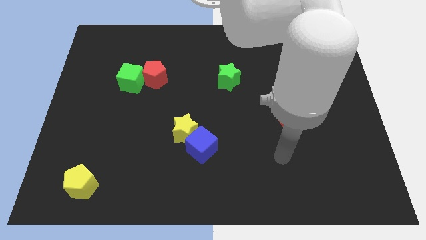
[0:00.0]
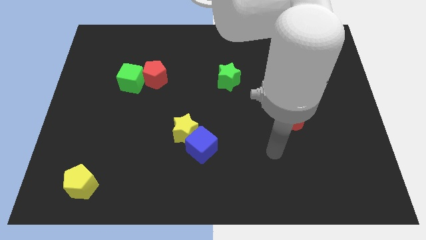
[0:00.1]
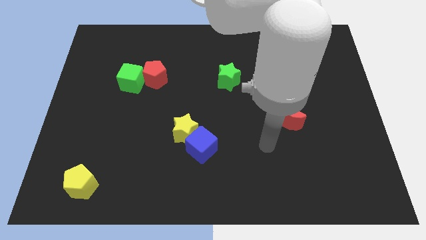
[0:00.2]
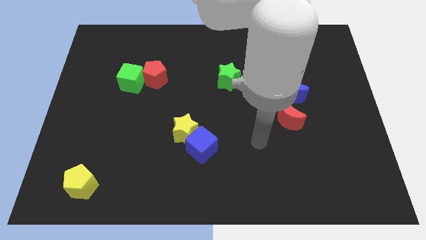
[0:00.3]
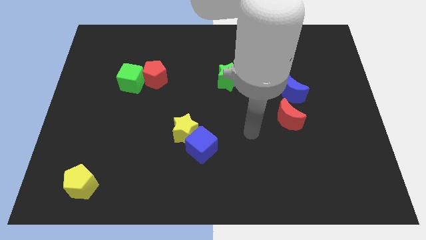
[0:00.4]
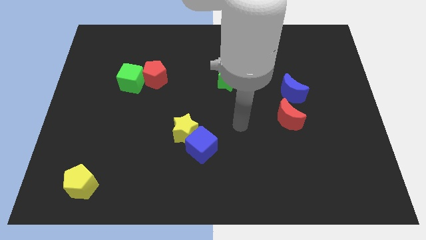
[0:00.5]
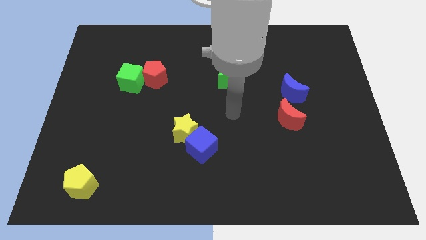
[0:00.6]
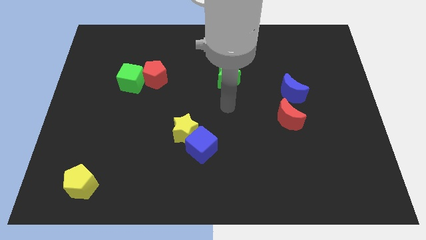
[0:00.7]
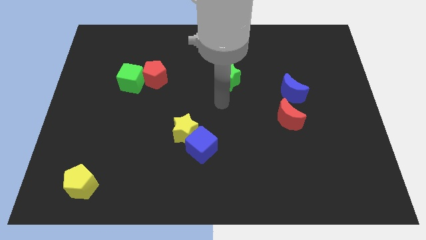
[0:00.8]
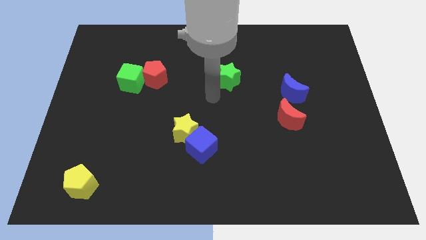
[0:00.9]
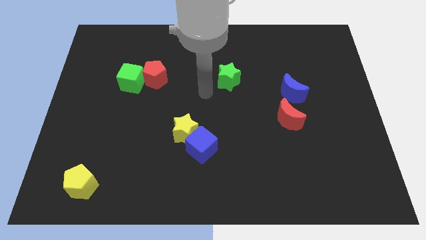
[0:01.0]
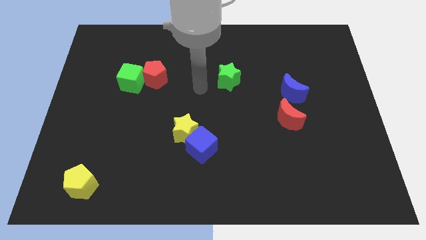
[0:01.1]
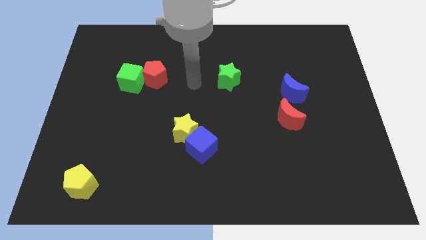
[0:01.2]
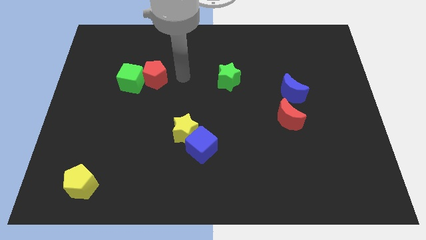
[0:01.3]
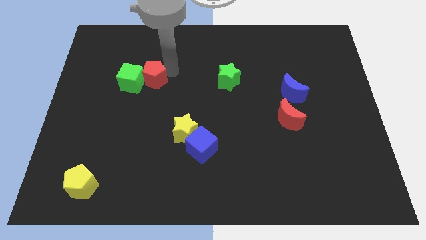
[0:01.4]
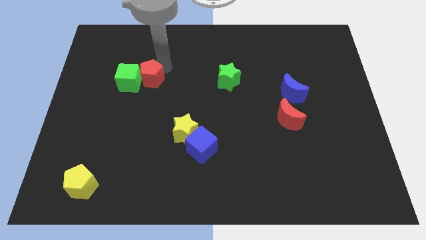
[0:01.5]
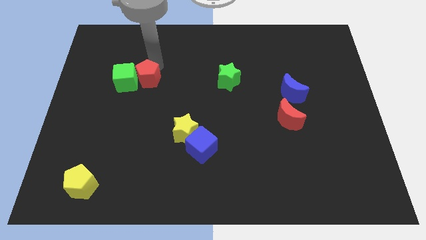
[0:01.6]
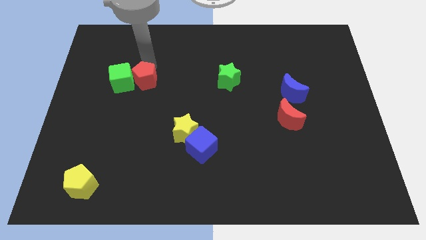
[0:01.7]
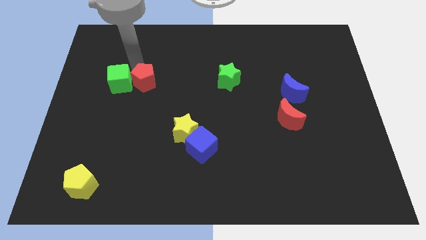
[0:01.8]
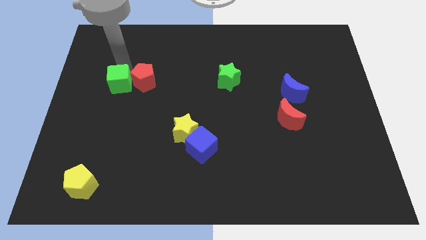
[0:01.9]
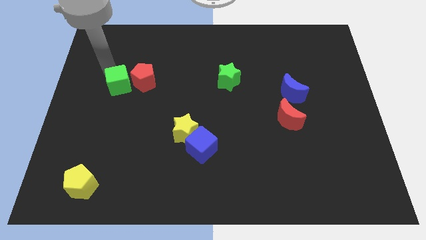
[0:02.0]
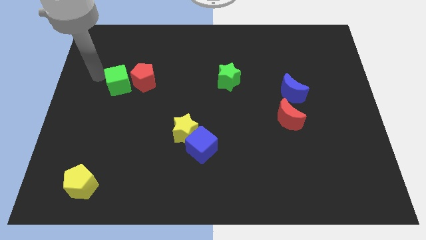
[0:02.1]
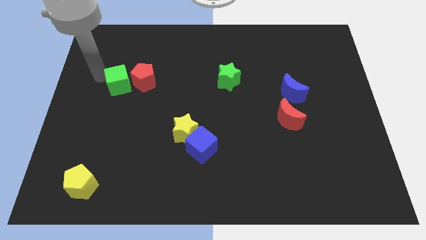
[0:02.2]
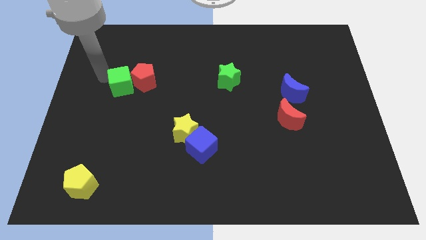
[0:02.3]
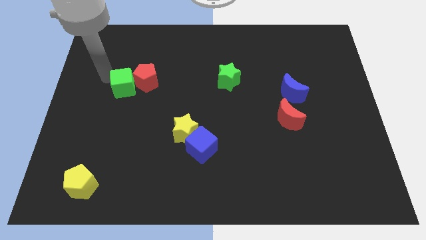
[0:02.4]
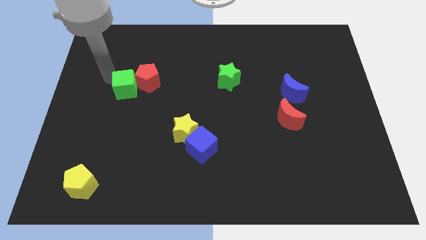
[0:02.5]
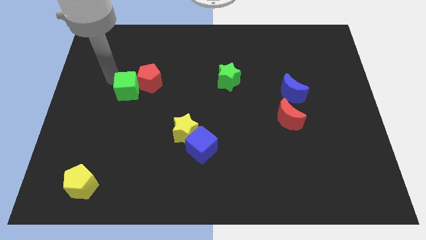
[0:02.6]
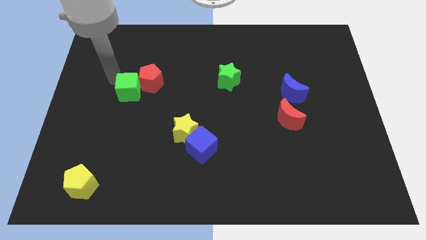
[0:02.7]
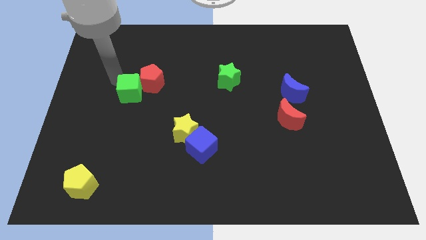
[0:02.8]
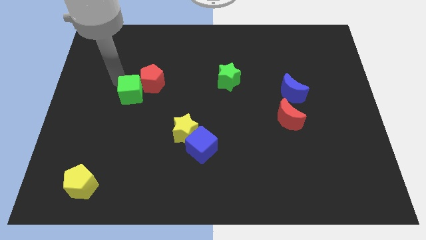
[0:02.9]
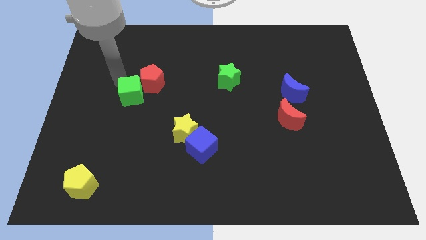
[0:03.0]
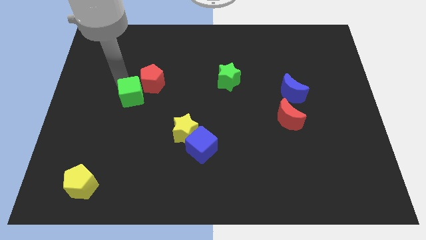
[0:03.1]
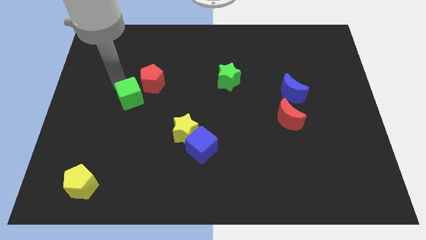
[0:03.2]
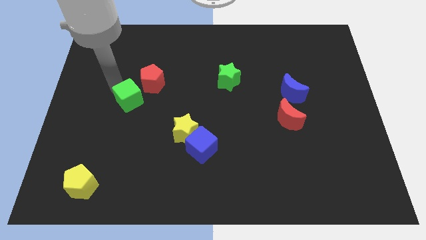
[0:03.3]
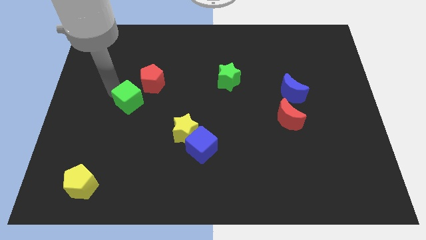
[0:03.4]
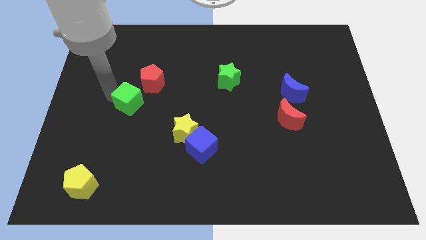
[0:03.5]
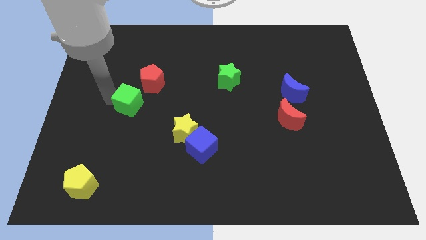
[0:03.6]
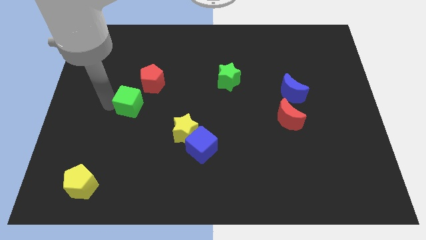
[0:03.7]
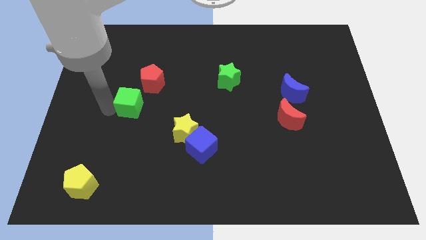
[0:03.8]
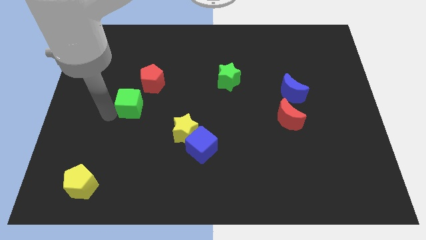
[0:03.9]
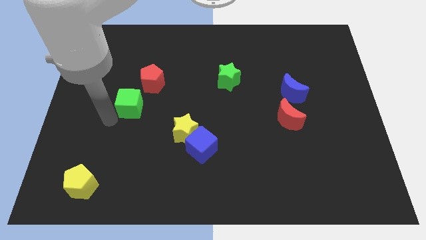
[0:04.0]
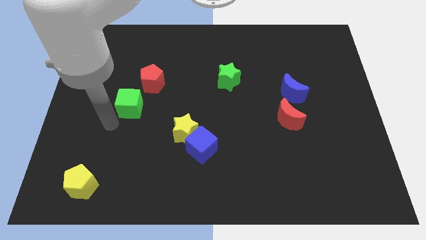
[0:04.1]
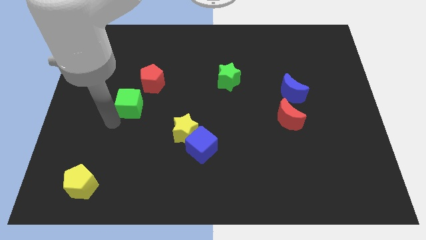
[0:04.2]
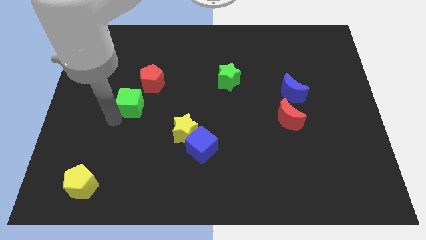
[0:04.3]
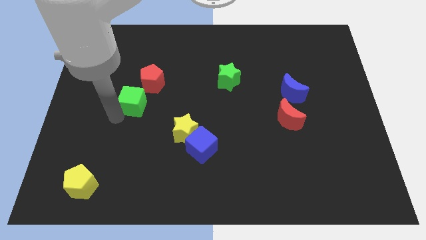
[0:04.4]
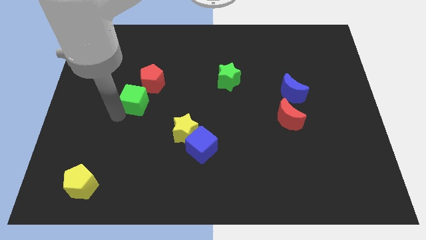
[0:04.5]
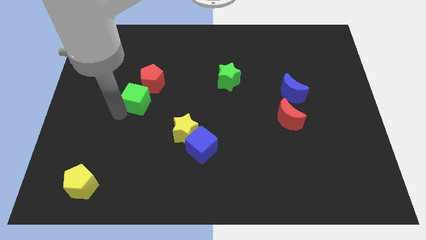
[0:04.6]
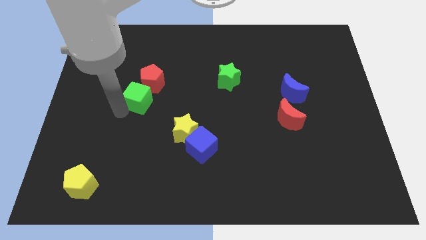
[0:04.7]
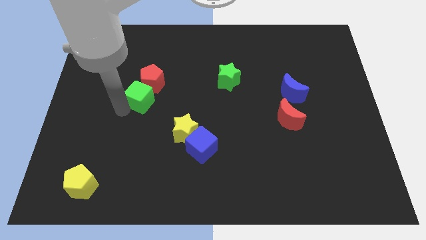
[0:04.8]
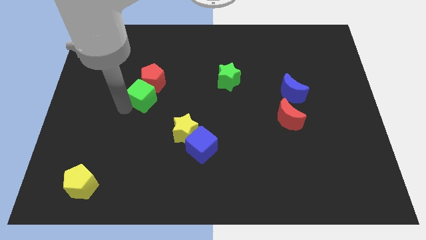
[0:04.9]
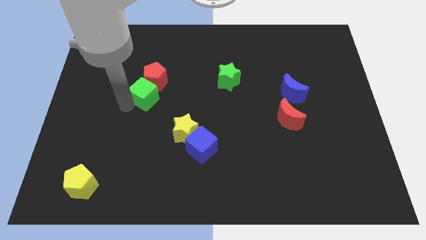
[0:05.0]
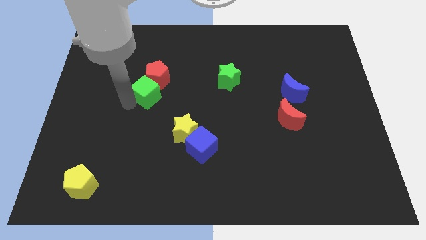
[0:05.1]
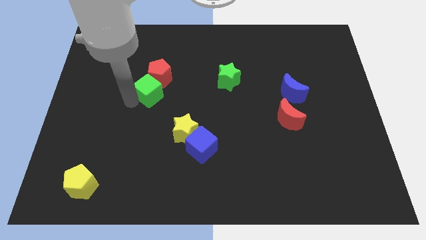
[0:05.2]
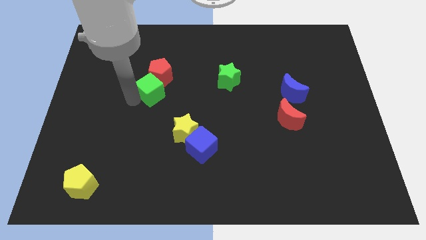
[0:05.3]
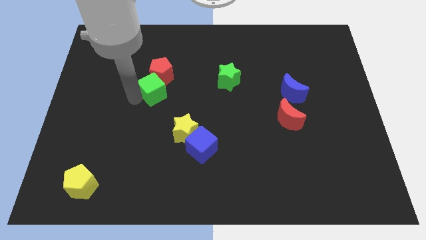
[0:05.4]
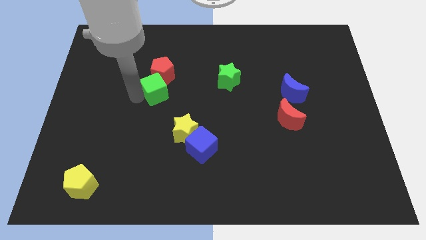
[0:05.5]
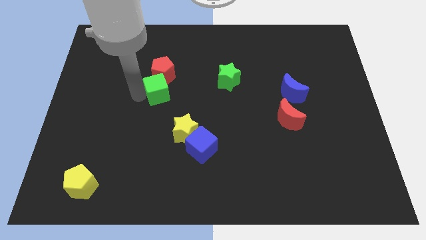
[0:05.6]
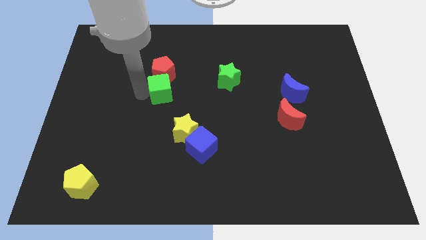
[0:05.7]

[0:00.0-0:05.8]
slightly push the green cube to the right

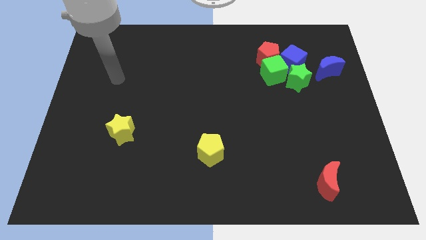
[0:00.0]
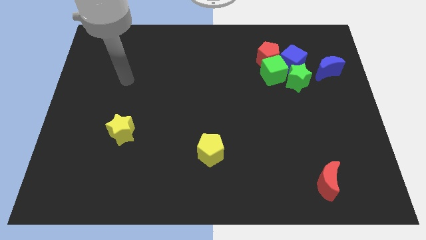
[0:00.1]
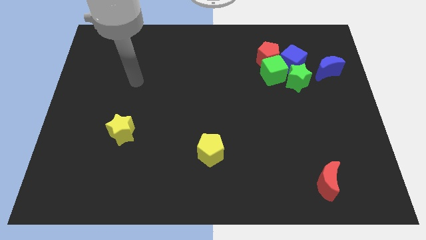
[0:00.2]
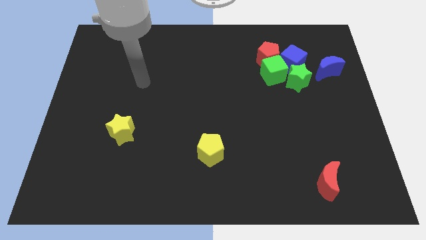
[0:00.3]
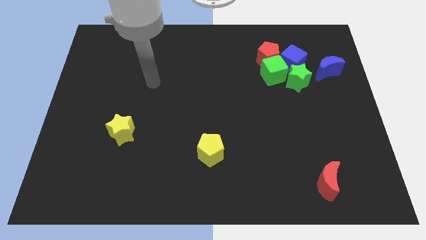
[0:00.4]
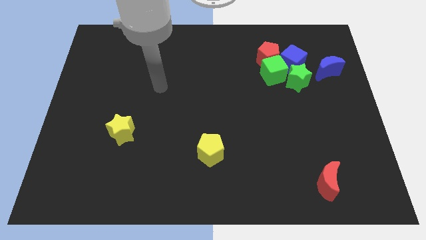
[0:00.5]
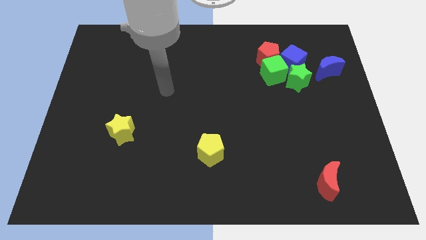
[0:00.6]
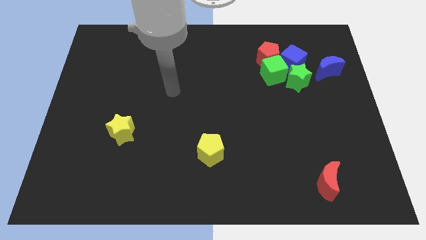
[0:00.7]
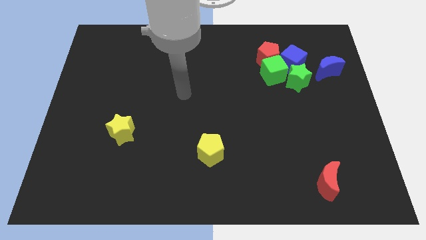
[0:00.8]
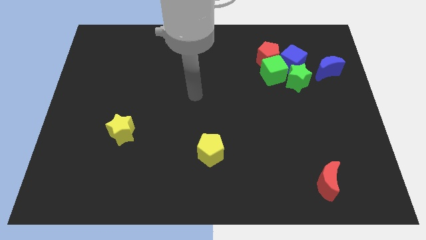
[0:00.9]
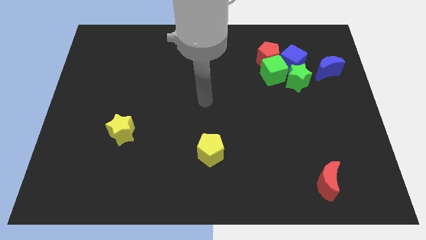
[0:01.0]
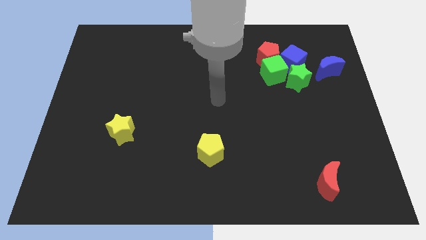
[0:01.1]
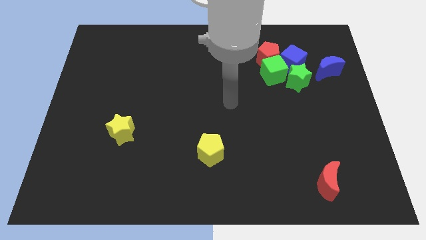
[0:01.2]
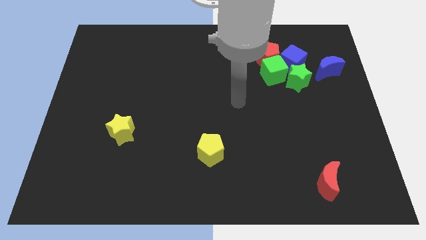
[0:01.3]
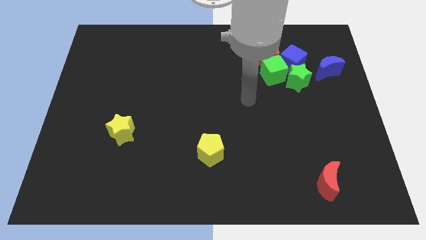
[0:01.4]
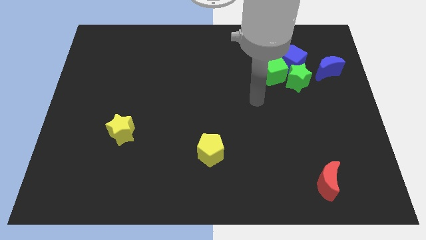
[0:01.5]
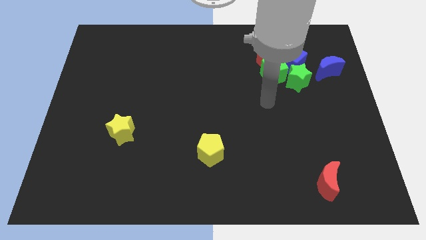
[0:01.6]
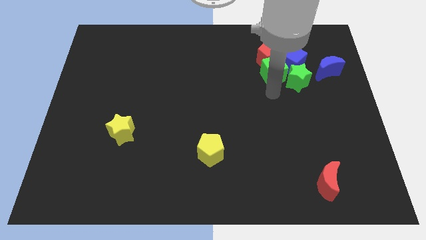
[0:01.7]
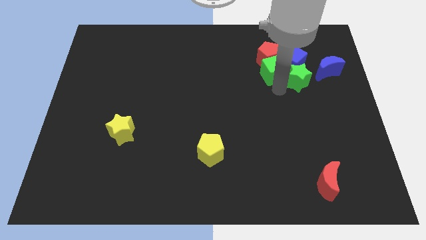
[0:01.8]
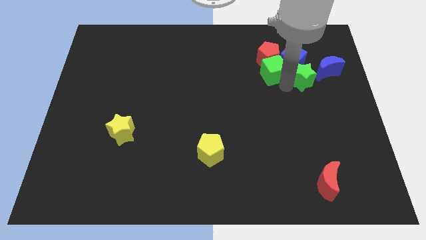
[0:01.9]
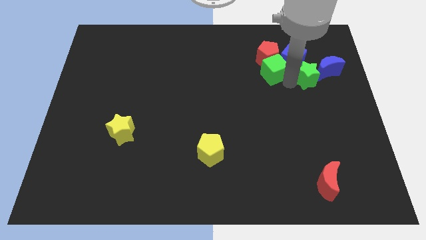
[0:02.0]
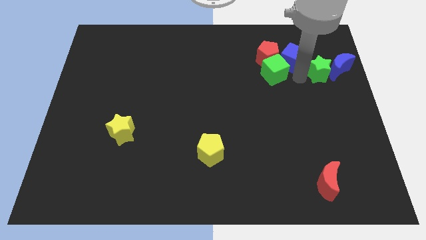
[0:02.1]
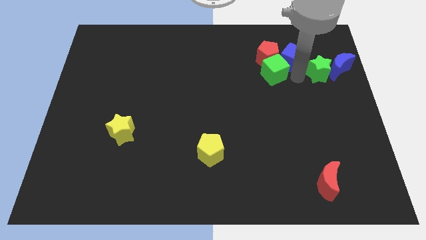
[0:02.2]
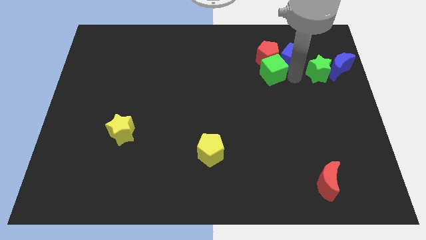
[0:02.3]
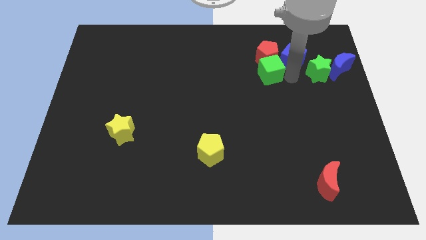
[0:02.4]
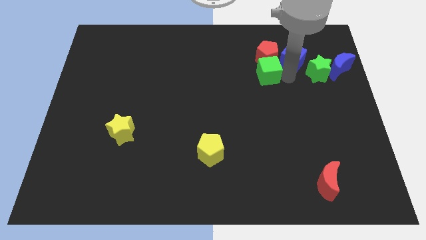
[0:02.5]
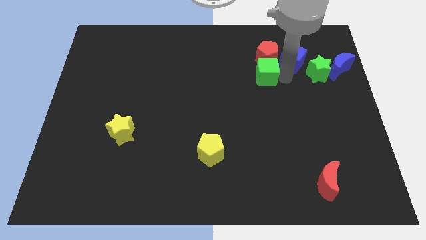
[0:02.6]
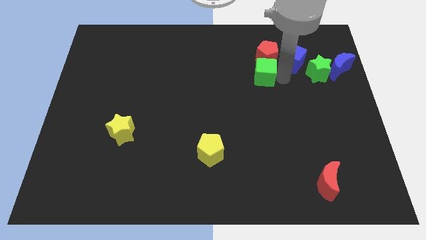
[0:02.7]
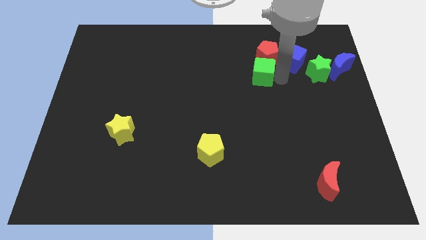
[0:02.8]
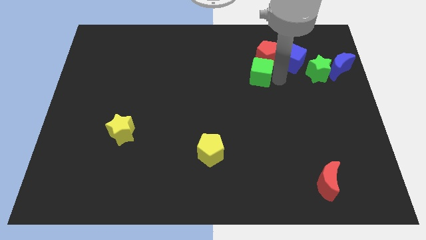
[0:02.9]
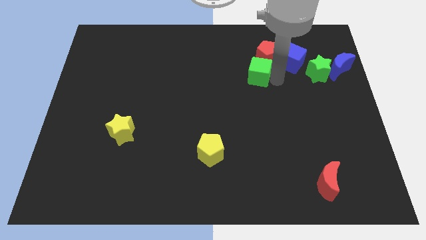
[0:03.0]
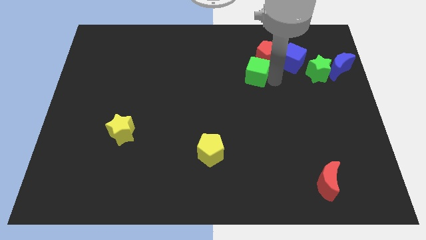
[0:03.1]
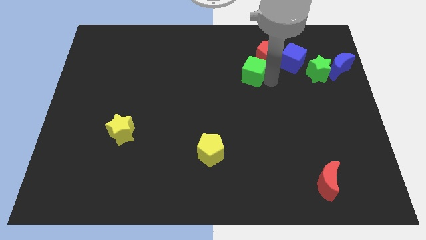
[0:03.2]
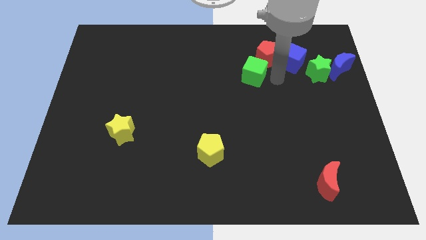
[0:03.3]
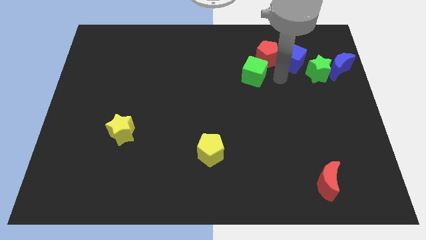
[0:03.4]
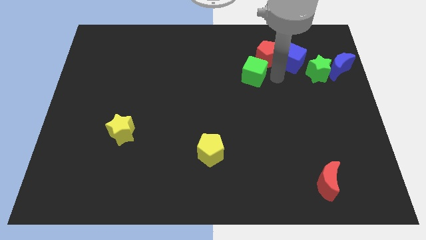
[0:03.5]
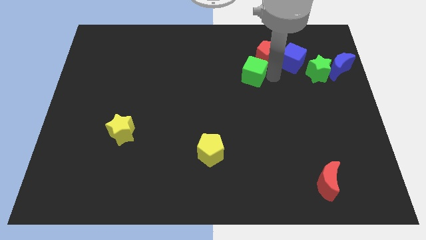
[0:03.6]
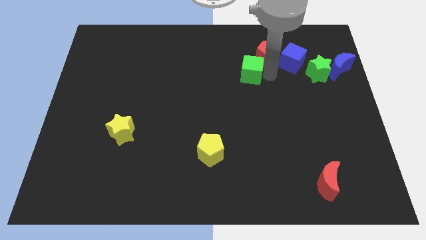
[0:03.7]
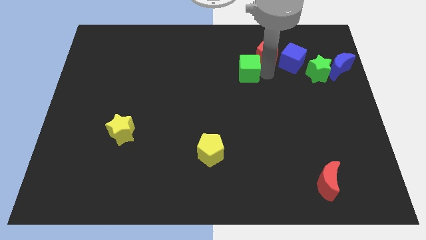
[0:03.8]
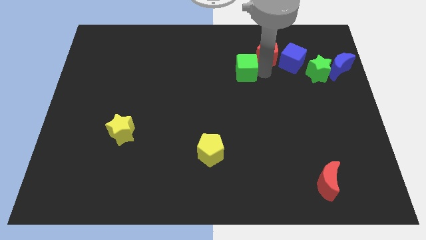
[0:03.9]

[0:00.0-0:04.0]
slightly move the green cube left
